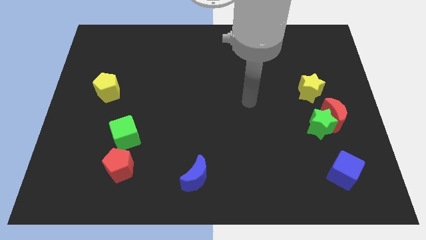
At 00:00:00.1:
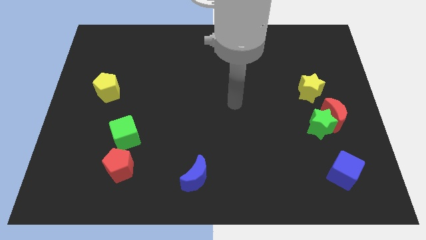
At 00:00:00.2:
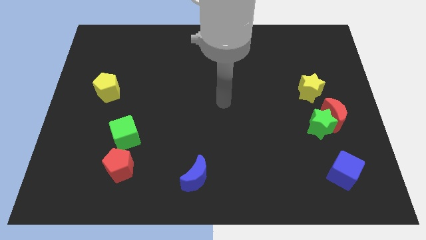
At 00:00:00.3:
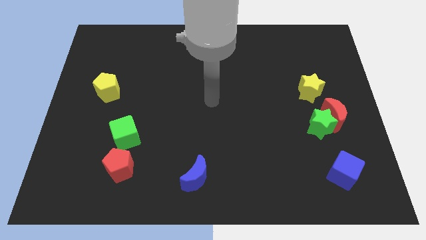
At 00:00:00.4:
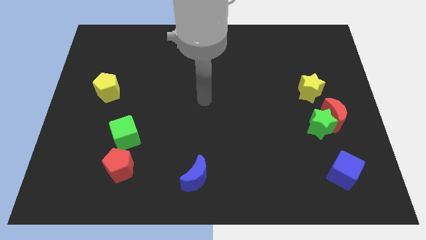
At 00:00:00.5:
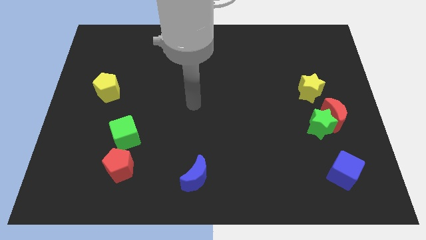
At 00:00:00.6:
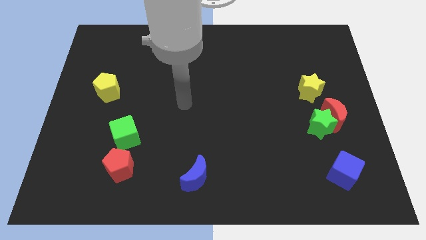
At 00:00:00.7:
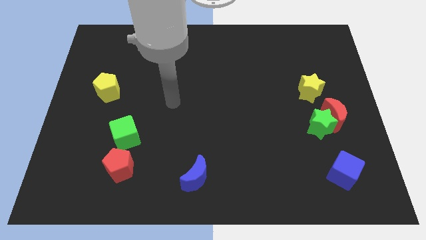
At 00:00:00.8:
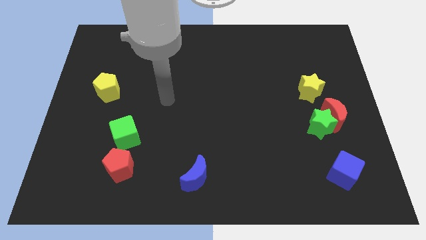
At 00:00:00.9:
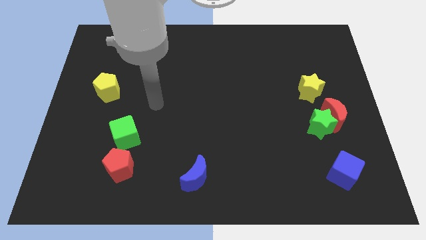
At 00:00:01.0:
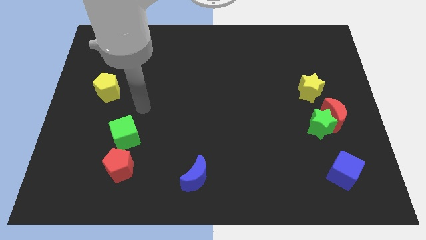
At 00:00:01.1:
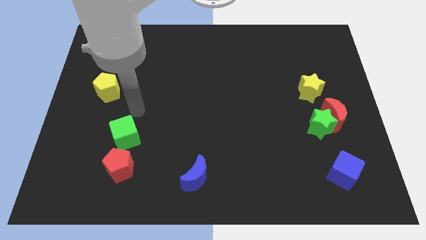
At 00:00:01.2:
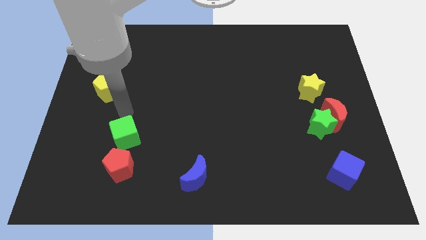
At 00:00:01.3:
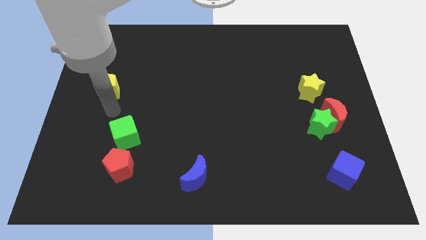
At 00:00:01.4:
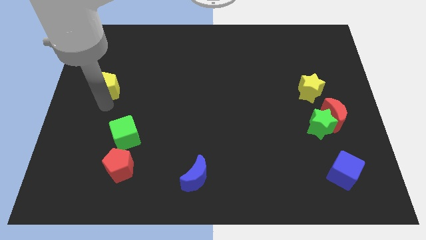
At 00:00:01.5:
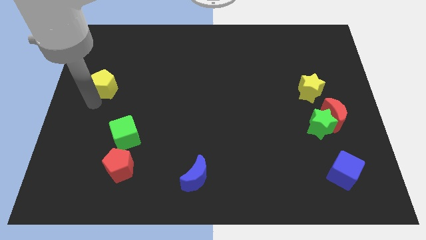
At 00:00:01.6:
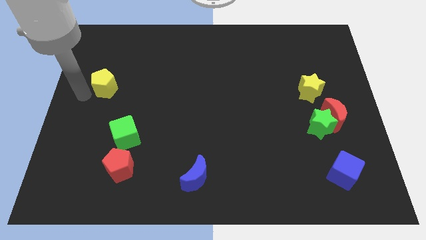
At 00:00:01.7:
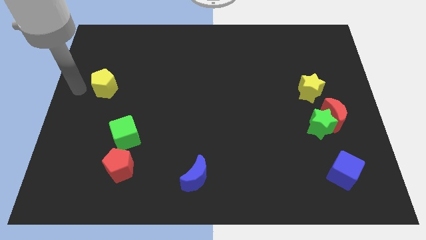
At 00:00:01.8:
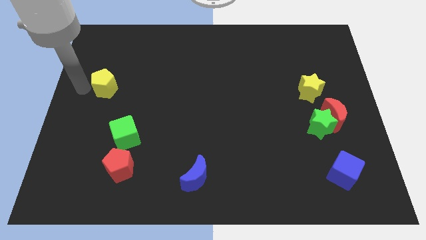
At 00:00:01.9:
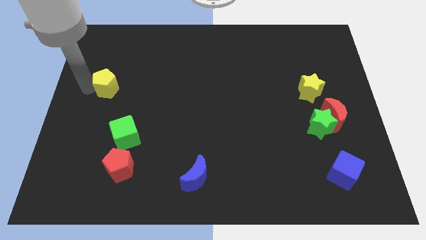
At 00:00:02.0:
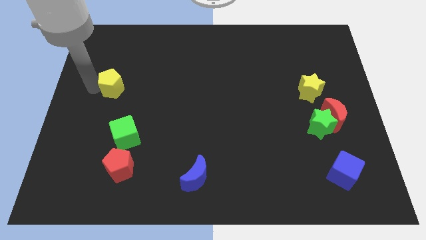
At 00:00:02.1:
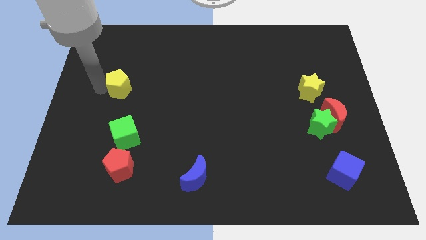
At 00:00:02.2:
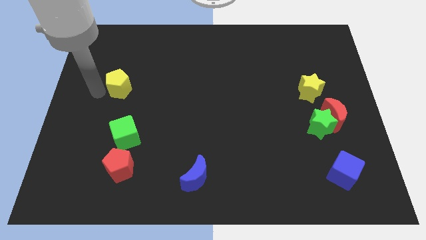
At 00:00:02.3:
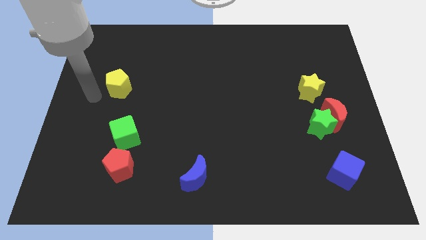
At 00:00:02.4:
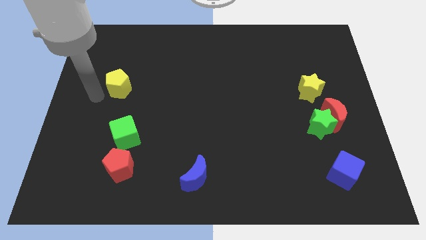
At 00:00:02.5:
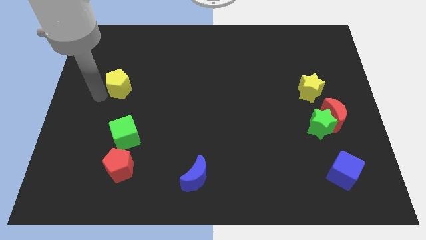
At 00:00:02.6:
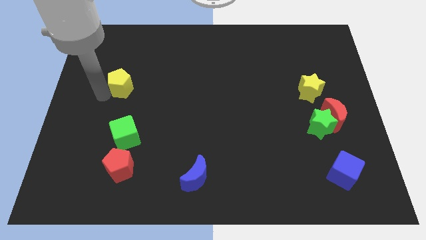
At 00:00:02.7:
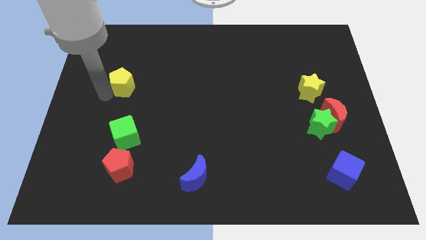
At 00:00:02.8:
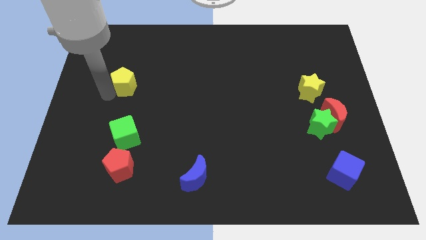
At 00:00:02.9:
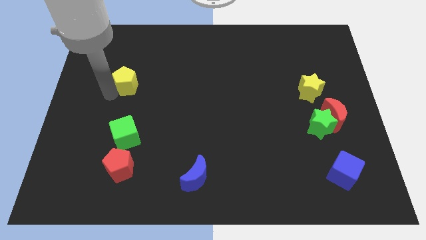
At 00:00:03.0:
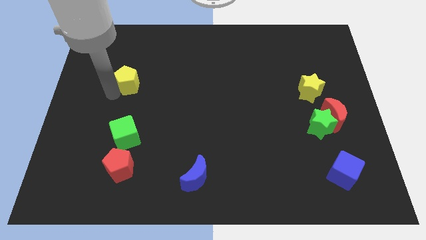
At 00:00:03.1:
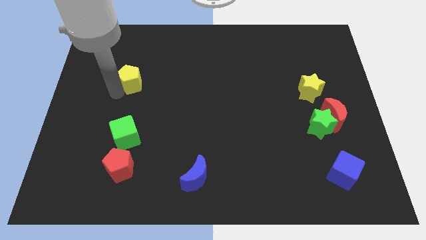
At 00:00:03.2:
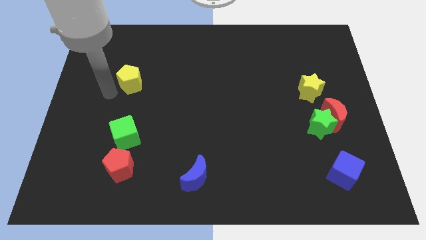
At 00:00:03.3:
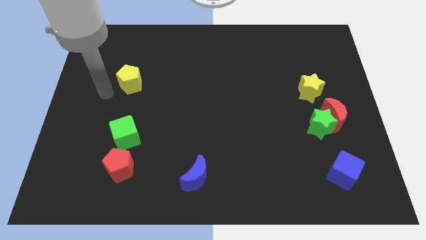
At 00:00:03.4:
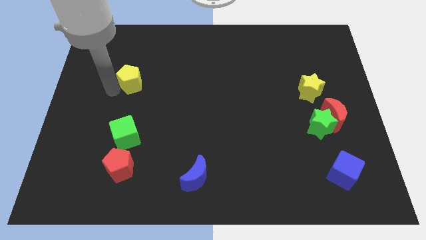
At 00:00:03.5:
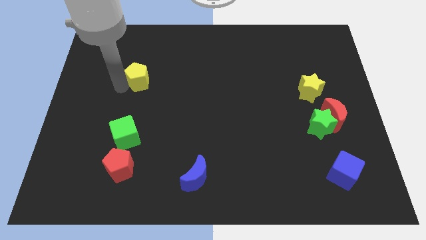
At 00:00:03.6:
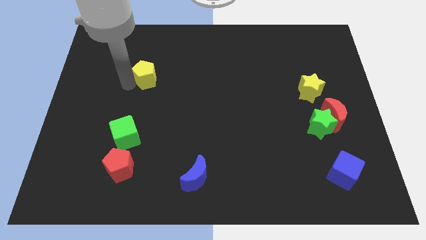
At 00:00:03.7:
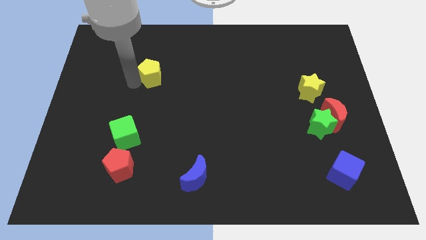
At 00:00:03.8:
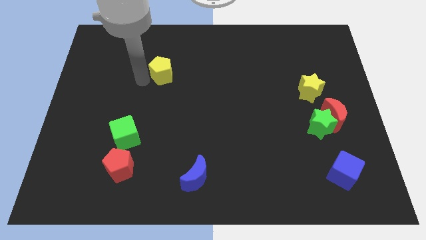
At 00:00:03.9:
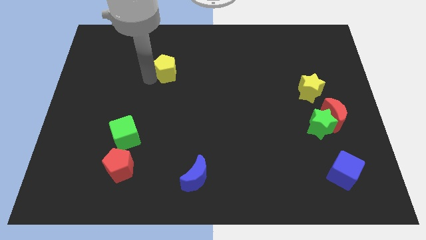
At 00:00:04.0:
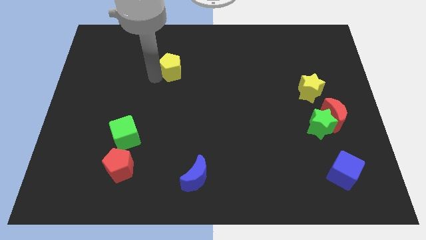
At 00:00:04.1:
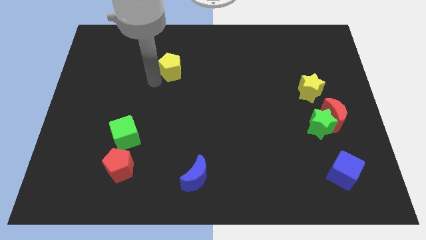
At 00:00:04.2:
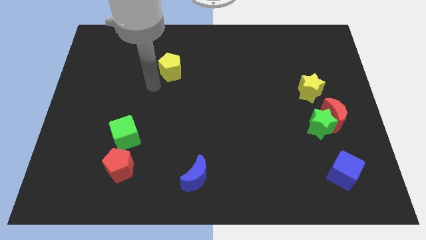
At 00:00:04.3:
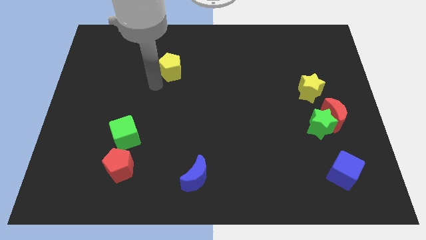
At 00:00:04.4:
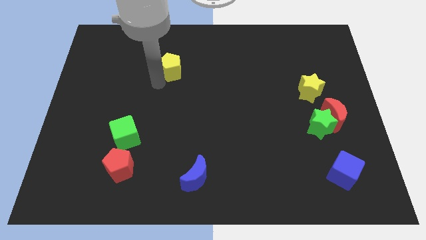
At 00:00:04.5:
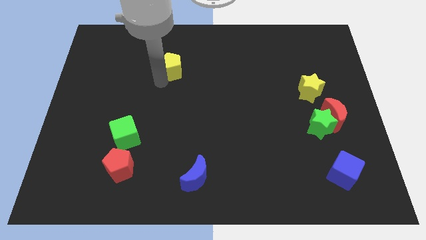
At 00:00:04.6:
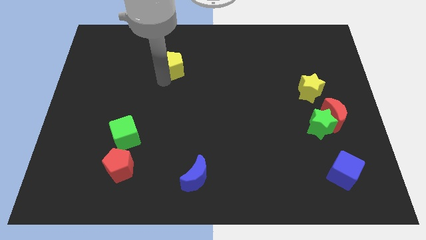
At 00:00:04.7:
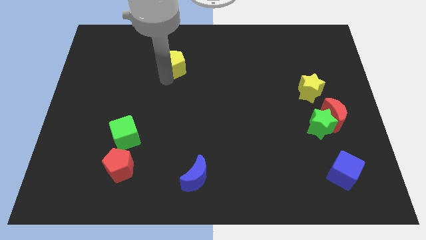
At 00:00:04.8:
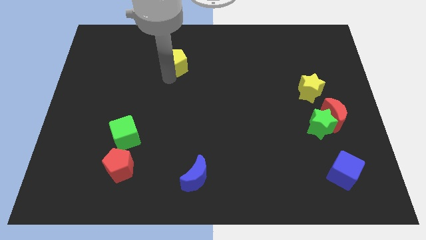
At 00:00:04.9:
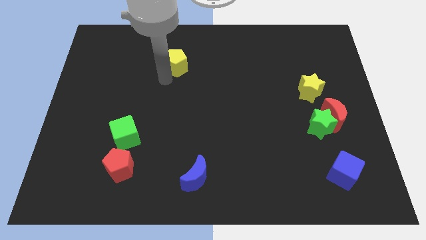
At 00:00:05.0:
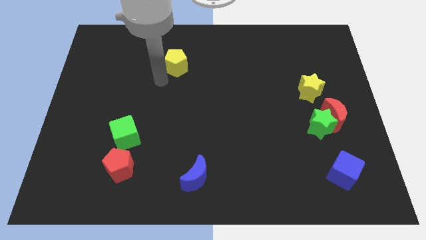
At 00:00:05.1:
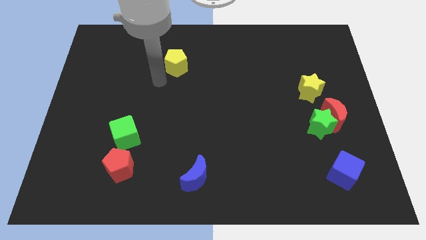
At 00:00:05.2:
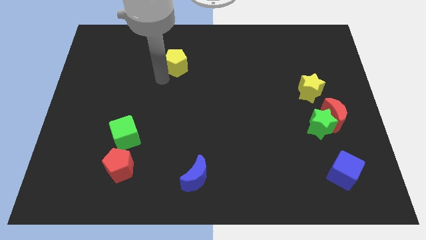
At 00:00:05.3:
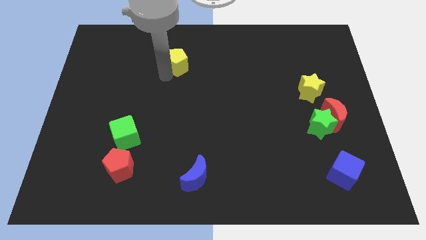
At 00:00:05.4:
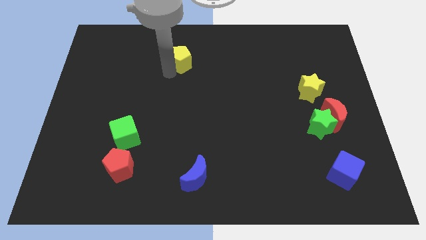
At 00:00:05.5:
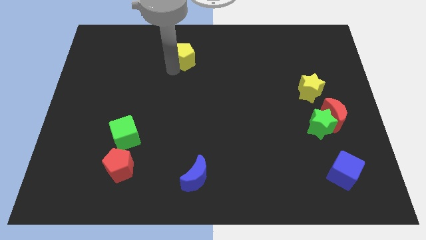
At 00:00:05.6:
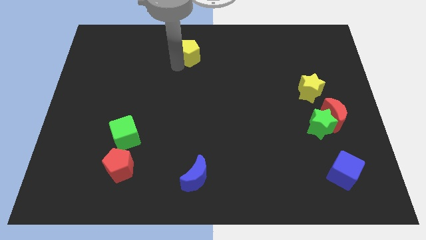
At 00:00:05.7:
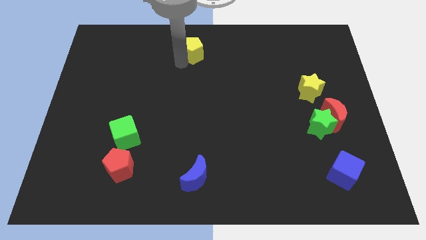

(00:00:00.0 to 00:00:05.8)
slide the yellow pentagon to the towards your base

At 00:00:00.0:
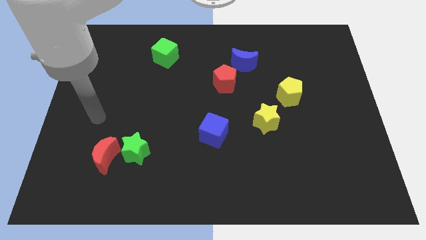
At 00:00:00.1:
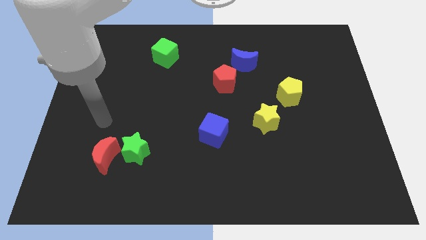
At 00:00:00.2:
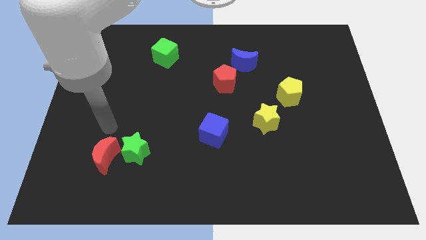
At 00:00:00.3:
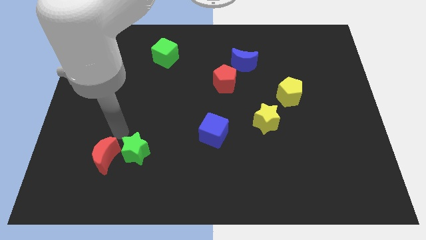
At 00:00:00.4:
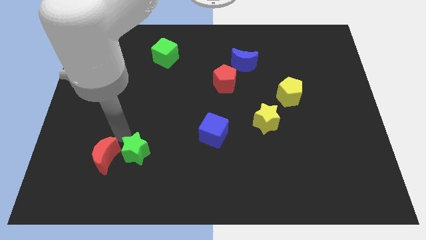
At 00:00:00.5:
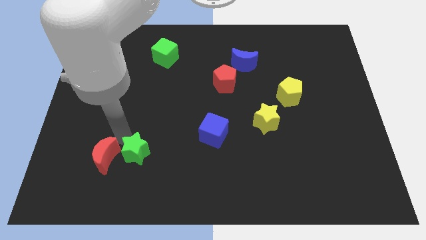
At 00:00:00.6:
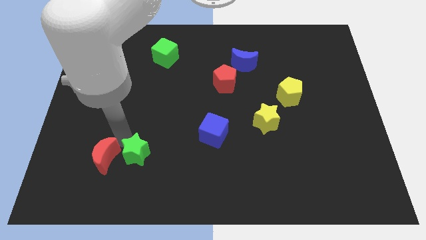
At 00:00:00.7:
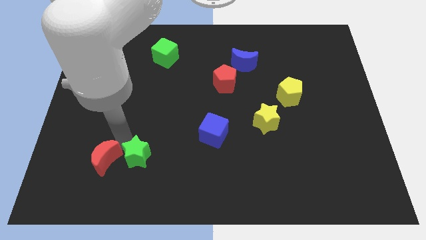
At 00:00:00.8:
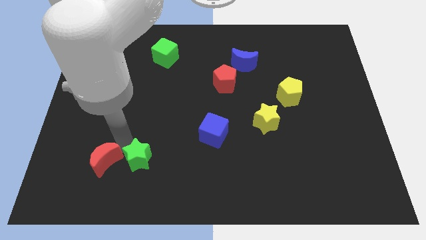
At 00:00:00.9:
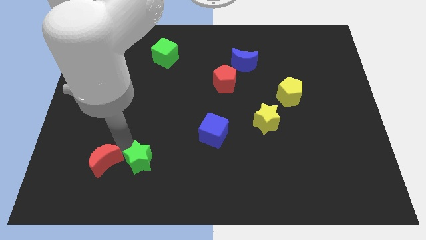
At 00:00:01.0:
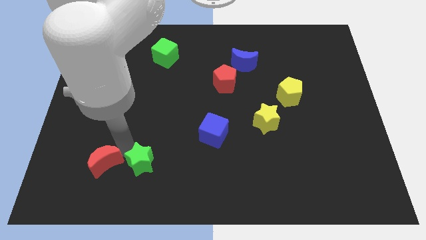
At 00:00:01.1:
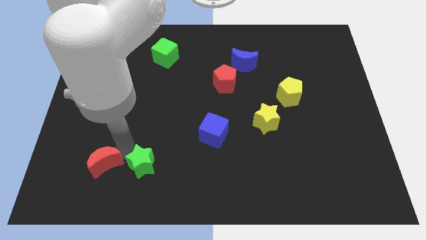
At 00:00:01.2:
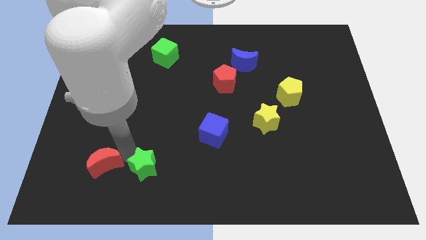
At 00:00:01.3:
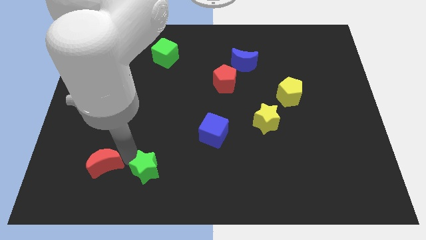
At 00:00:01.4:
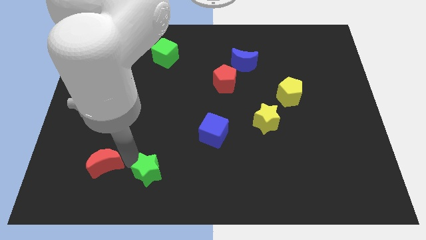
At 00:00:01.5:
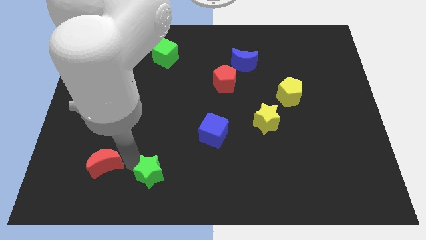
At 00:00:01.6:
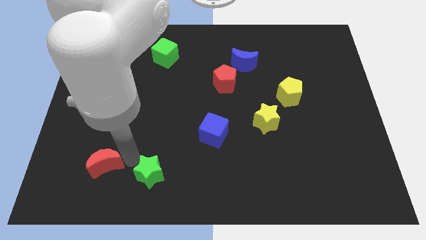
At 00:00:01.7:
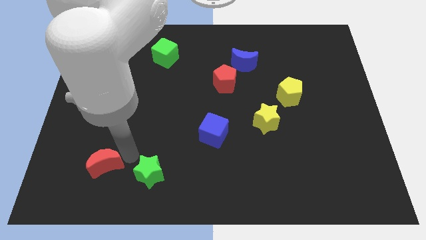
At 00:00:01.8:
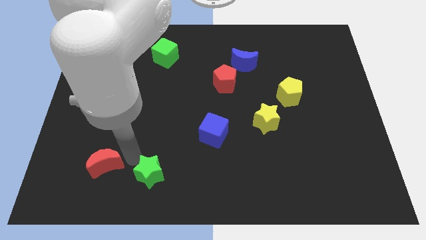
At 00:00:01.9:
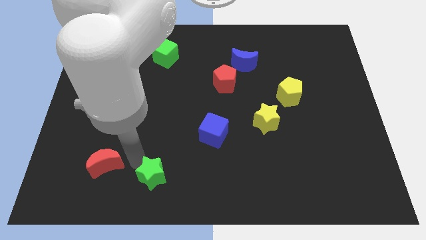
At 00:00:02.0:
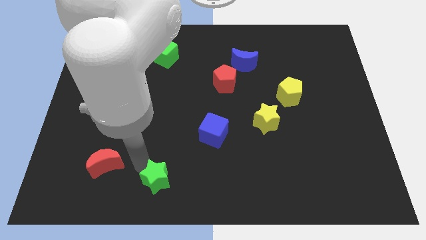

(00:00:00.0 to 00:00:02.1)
push the green star to the bottom side
